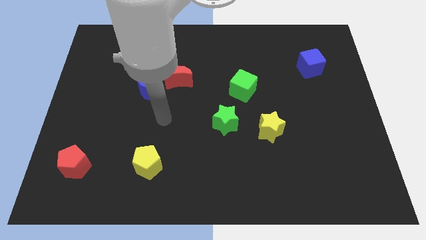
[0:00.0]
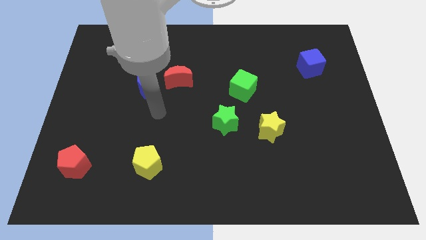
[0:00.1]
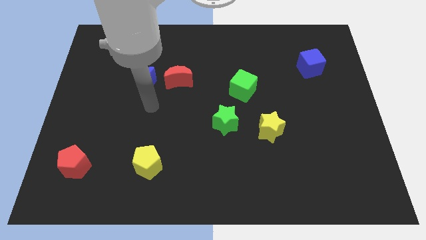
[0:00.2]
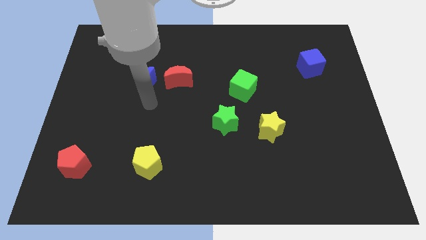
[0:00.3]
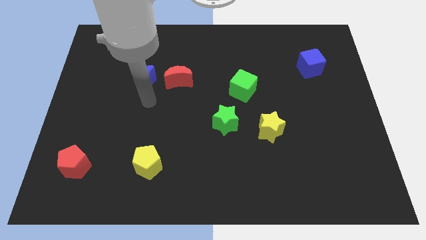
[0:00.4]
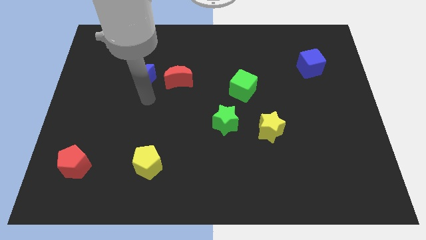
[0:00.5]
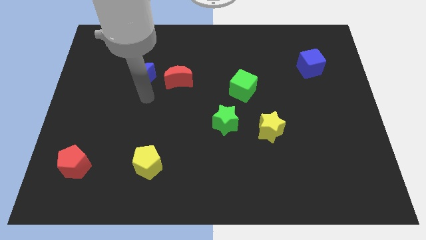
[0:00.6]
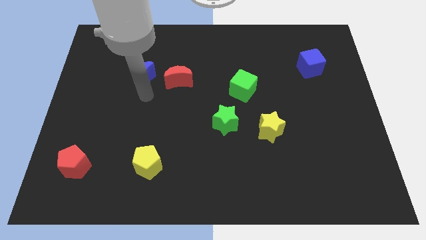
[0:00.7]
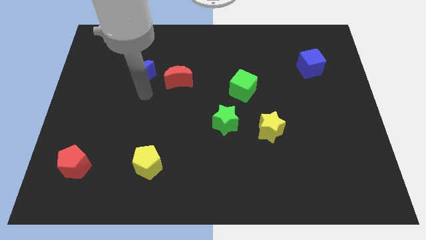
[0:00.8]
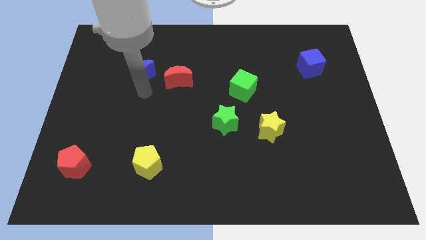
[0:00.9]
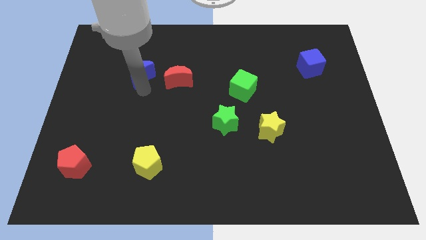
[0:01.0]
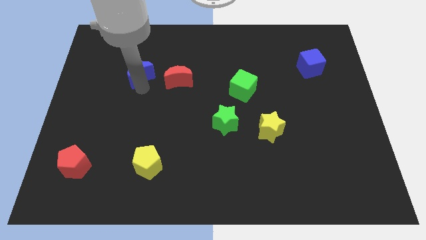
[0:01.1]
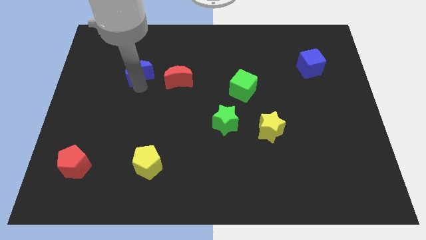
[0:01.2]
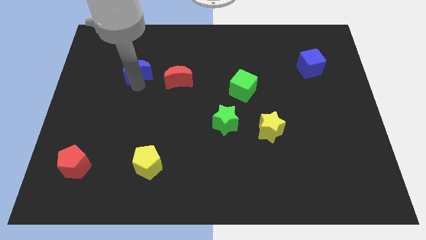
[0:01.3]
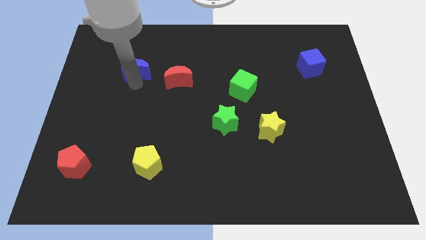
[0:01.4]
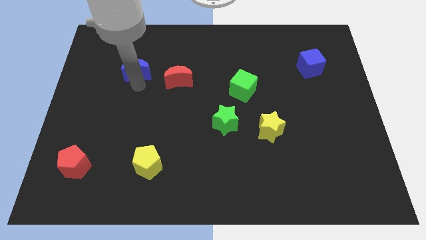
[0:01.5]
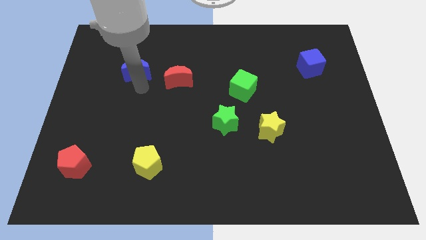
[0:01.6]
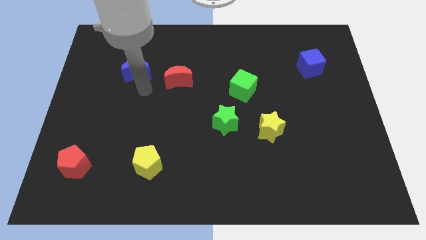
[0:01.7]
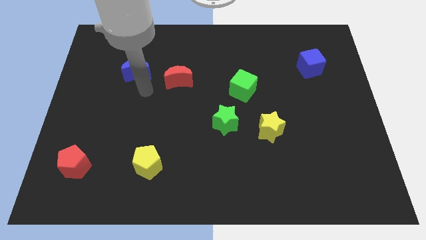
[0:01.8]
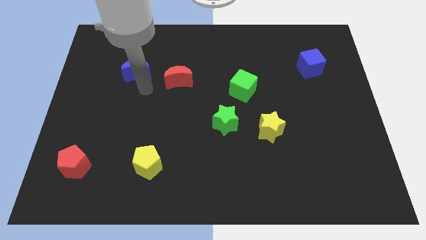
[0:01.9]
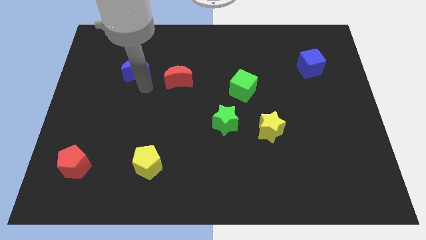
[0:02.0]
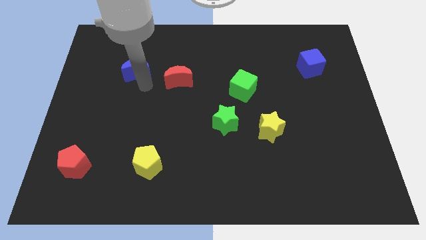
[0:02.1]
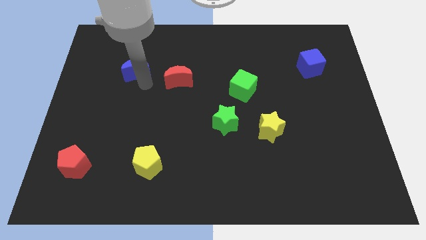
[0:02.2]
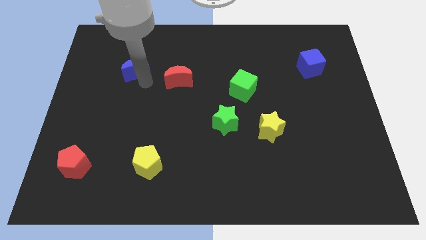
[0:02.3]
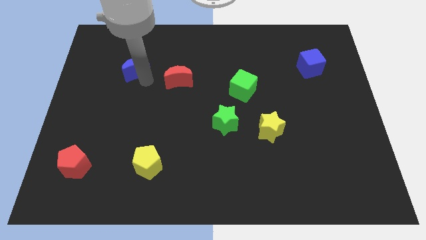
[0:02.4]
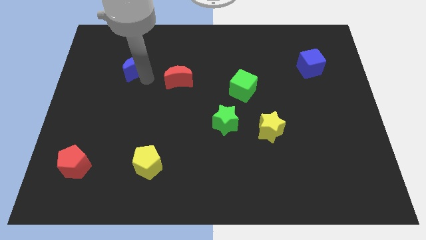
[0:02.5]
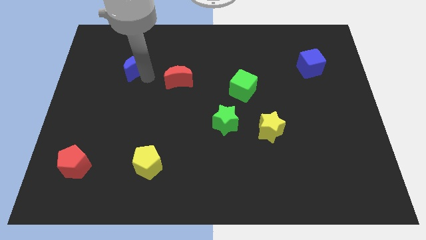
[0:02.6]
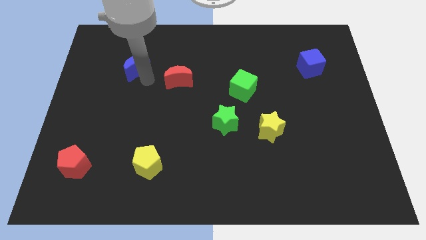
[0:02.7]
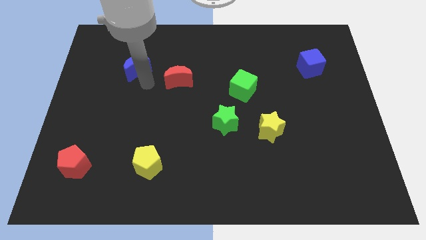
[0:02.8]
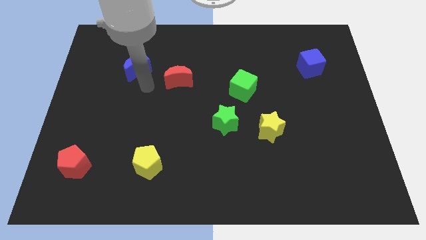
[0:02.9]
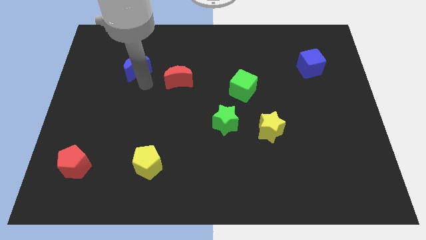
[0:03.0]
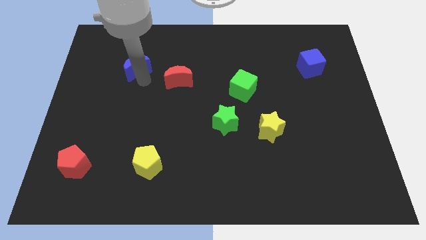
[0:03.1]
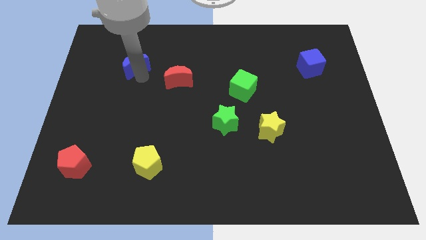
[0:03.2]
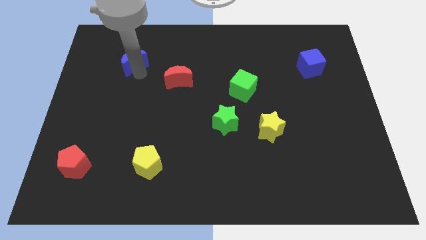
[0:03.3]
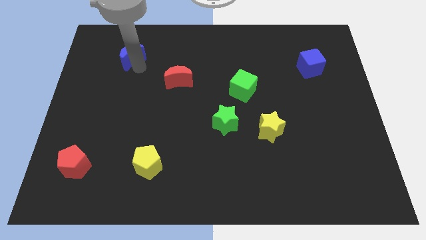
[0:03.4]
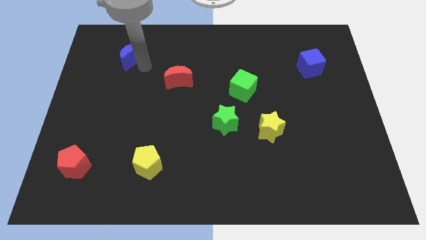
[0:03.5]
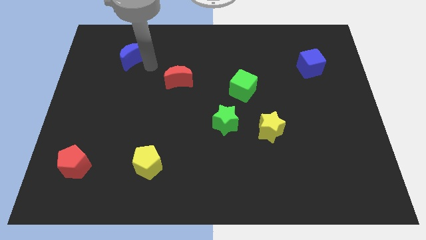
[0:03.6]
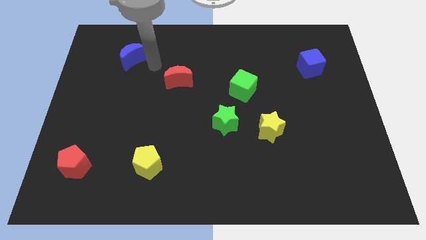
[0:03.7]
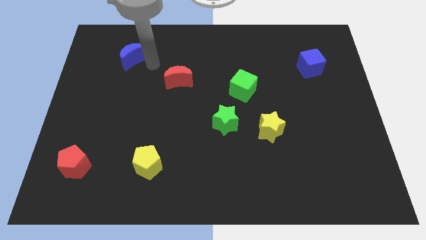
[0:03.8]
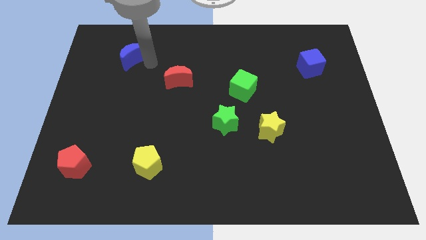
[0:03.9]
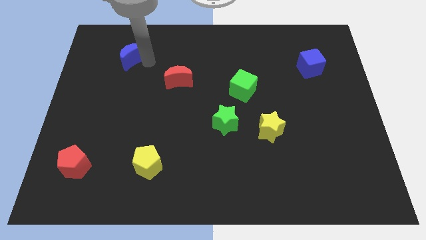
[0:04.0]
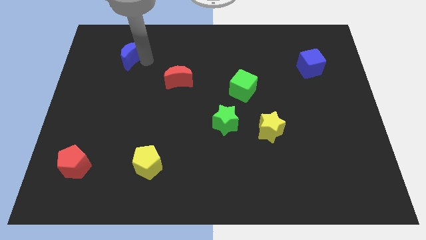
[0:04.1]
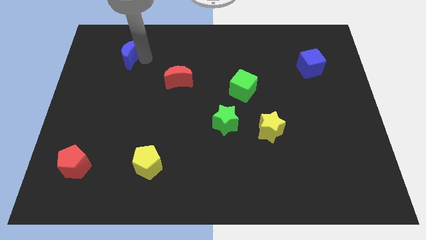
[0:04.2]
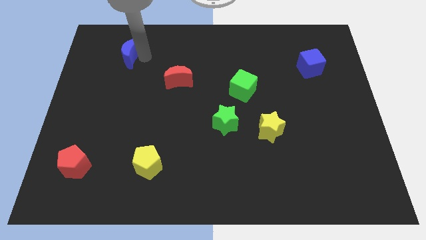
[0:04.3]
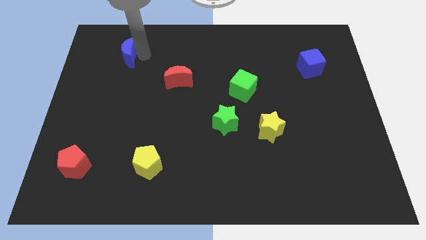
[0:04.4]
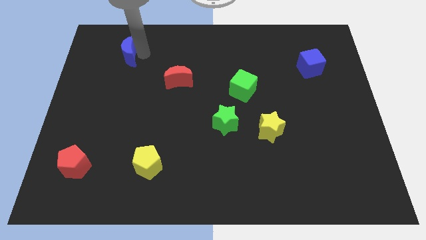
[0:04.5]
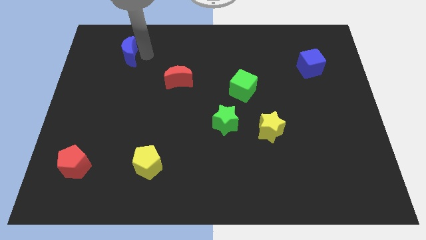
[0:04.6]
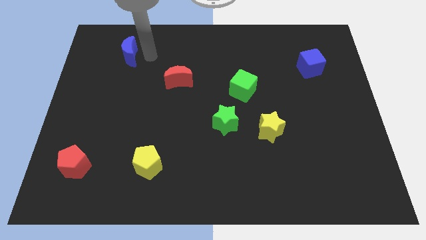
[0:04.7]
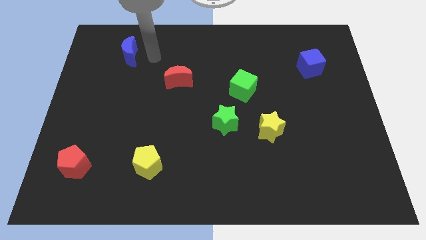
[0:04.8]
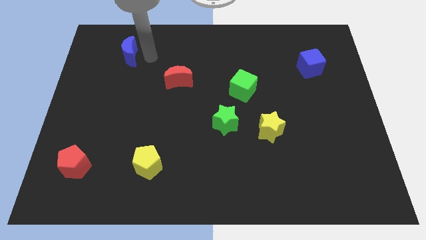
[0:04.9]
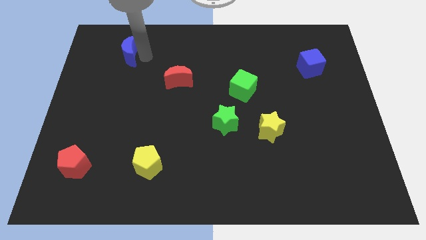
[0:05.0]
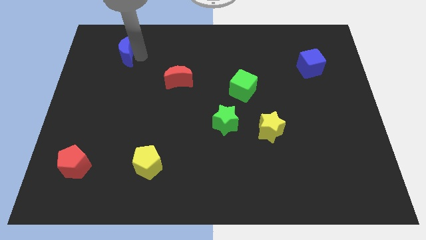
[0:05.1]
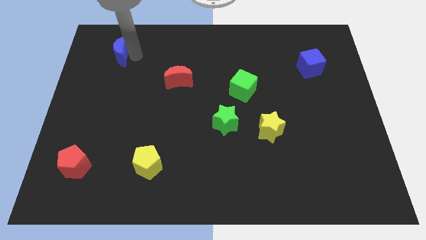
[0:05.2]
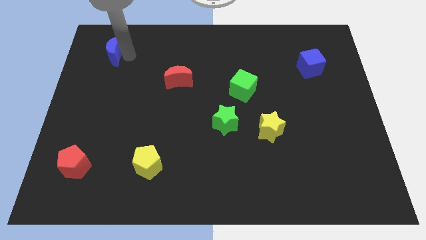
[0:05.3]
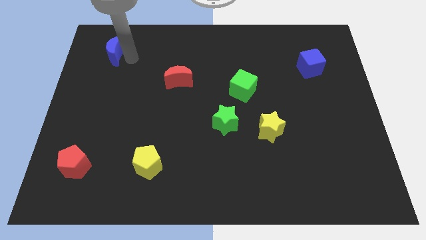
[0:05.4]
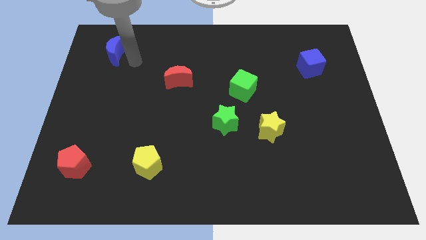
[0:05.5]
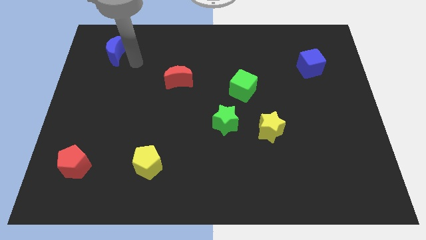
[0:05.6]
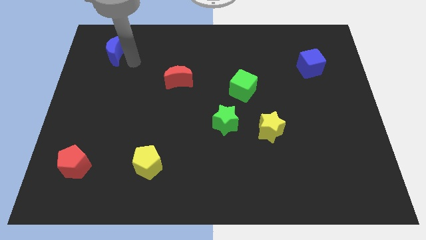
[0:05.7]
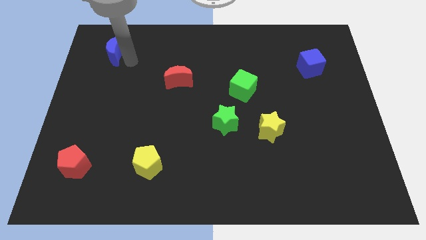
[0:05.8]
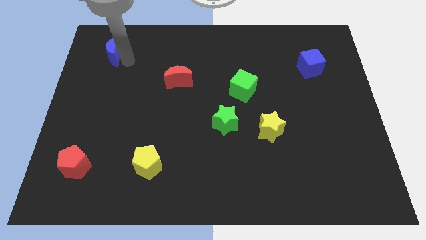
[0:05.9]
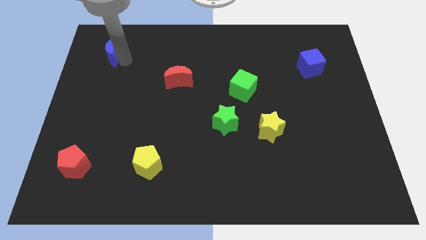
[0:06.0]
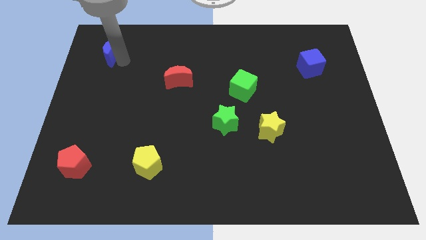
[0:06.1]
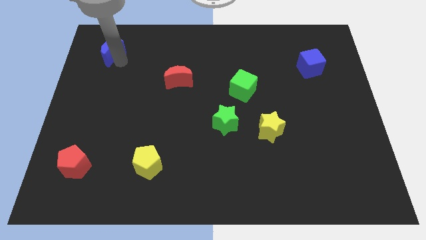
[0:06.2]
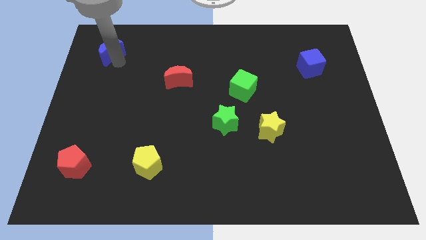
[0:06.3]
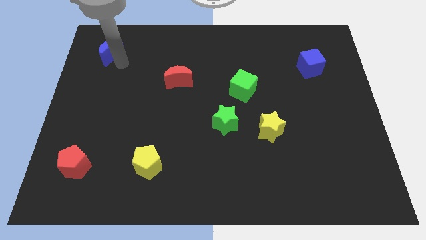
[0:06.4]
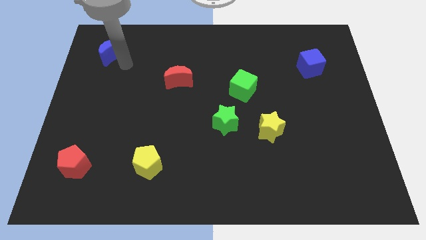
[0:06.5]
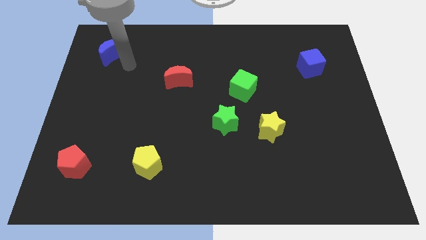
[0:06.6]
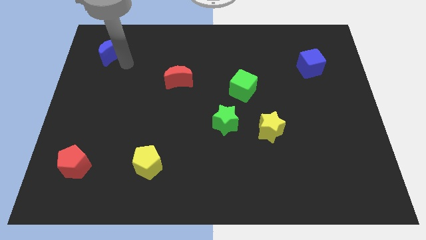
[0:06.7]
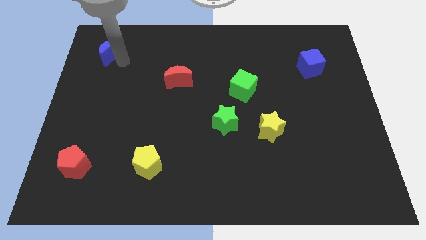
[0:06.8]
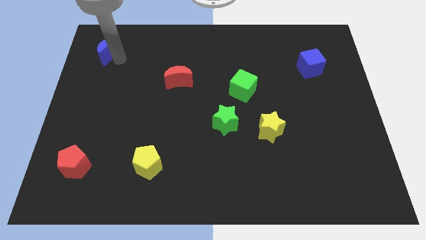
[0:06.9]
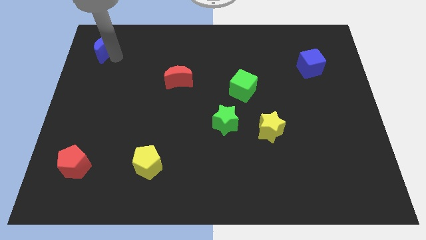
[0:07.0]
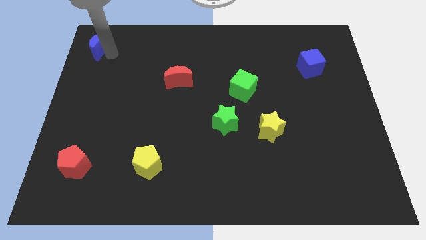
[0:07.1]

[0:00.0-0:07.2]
put the blue moon to the upper left corner

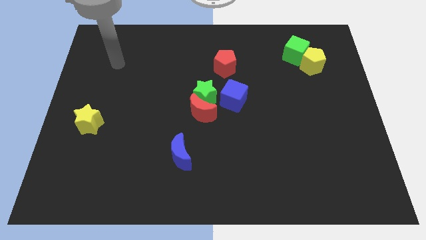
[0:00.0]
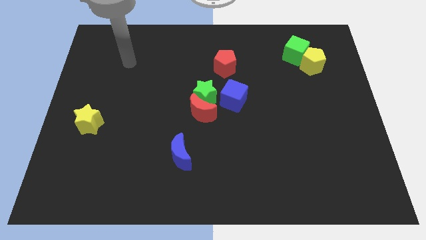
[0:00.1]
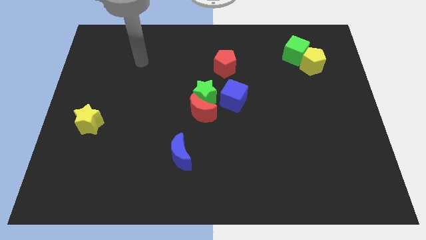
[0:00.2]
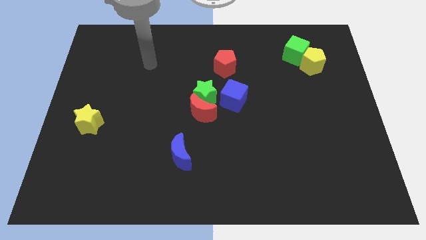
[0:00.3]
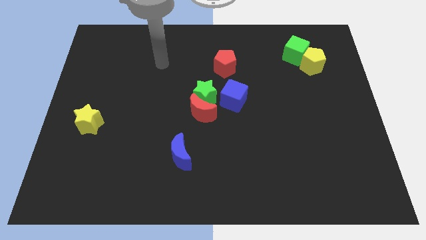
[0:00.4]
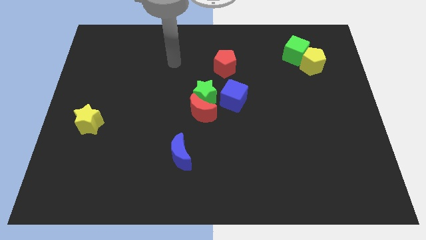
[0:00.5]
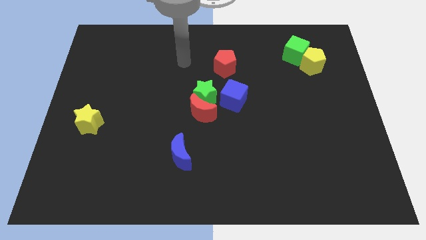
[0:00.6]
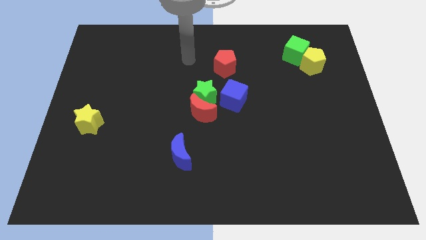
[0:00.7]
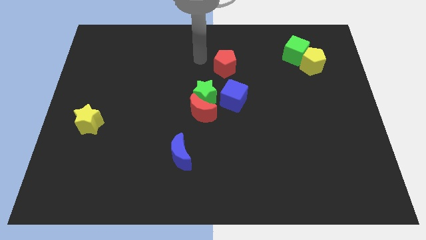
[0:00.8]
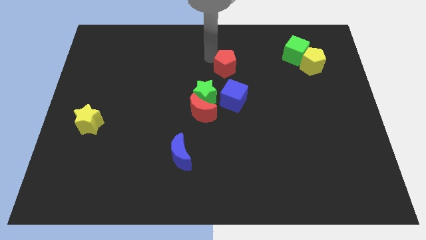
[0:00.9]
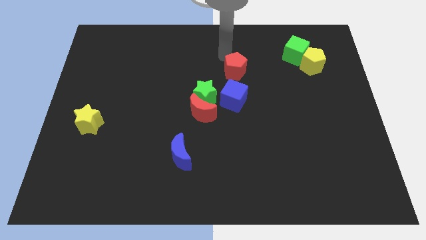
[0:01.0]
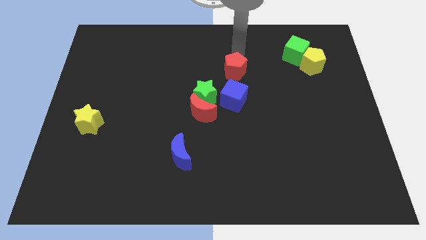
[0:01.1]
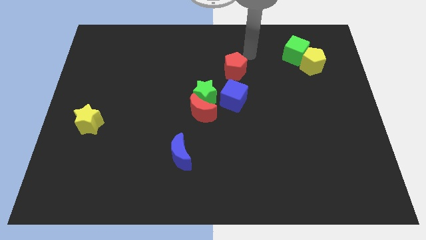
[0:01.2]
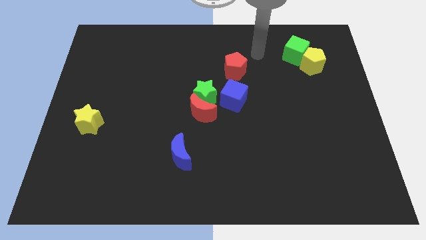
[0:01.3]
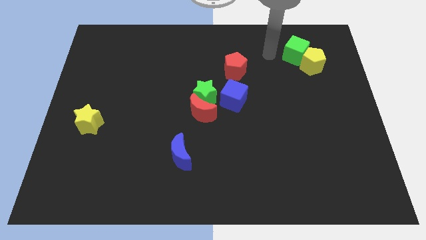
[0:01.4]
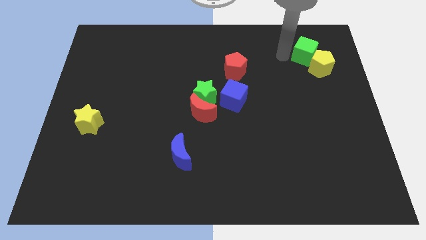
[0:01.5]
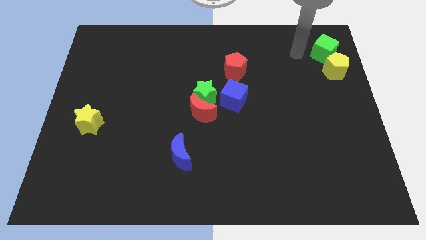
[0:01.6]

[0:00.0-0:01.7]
put the yellow pentagon to the right side of the board
